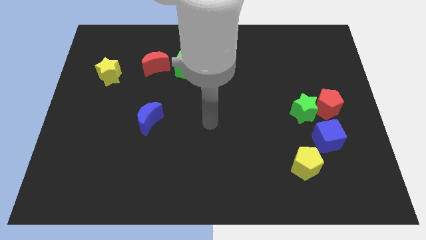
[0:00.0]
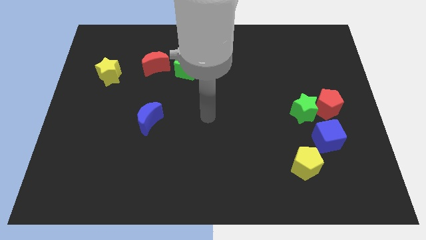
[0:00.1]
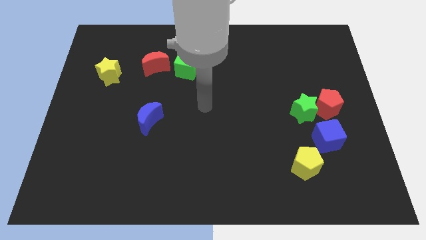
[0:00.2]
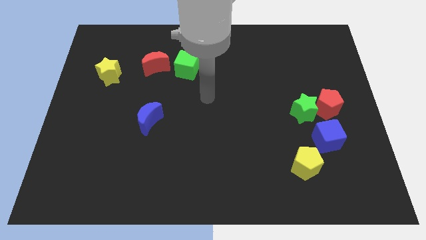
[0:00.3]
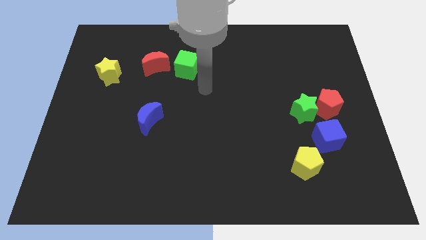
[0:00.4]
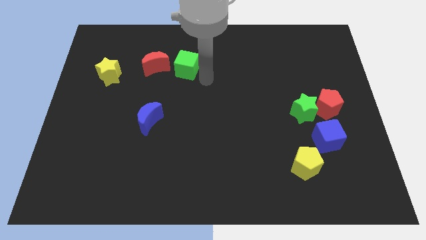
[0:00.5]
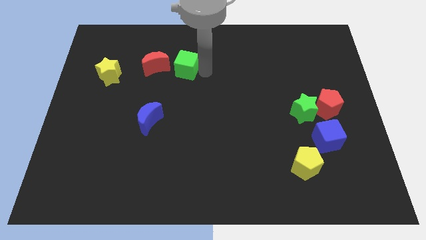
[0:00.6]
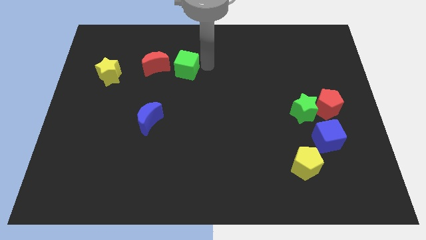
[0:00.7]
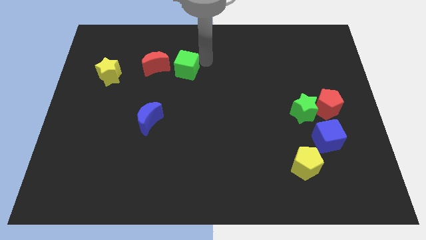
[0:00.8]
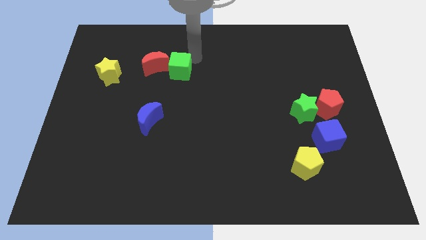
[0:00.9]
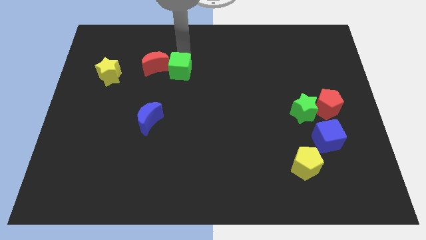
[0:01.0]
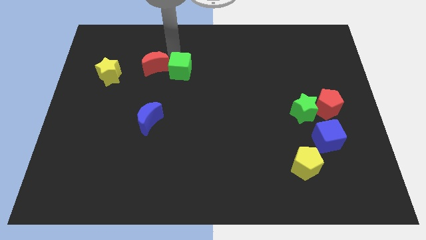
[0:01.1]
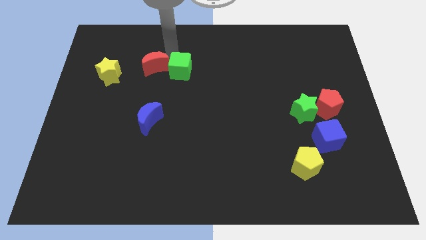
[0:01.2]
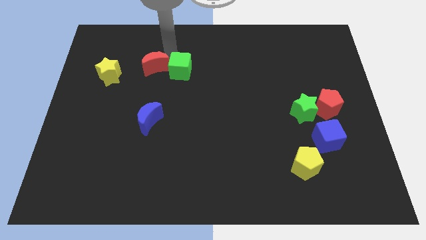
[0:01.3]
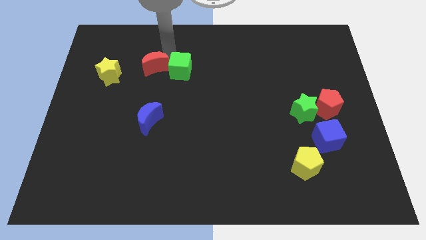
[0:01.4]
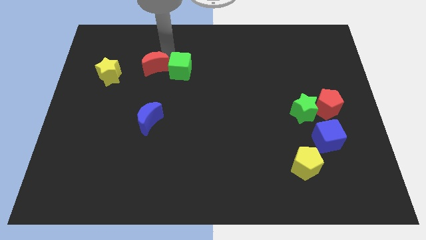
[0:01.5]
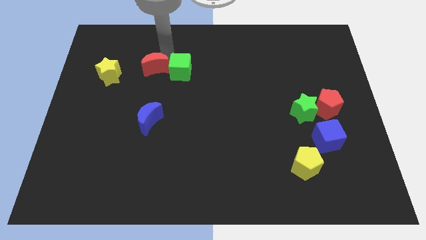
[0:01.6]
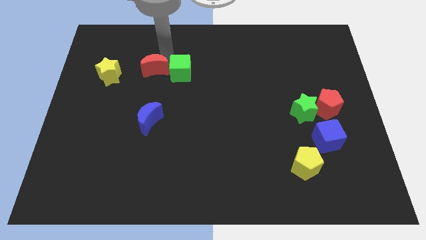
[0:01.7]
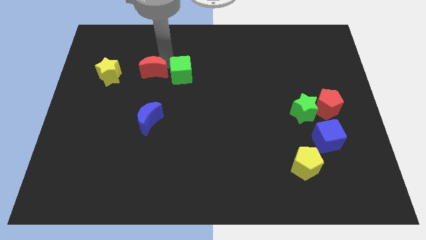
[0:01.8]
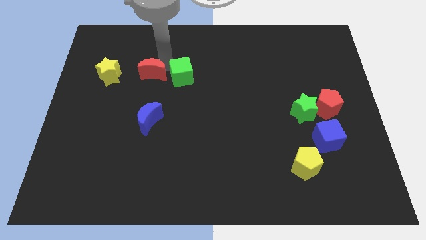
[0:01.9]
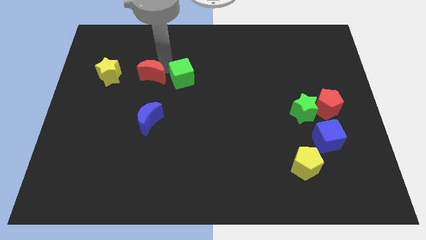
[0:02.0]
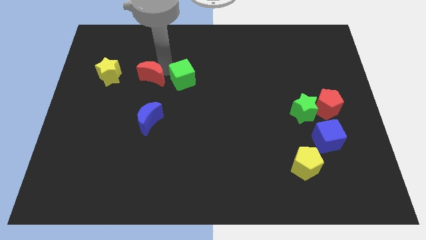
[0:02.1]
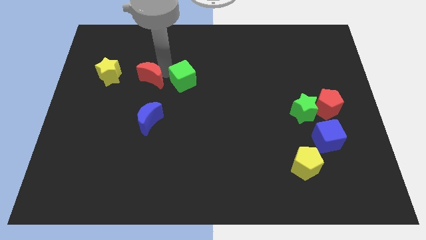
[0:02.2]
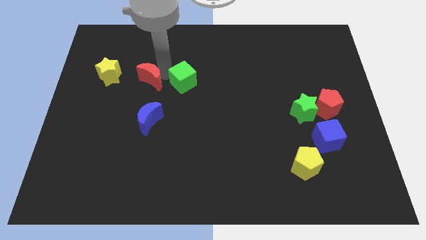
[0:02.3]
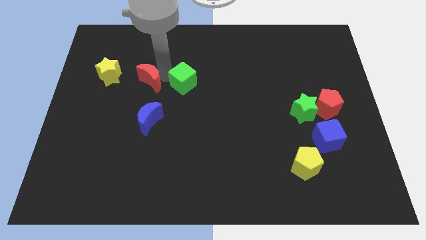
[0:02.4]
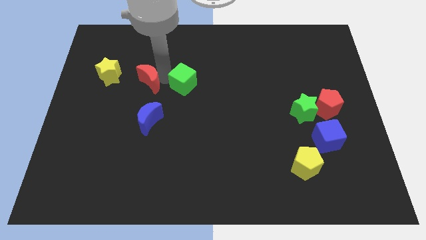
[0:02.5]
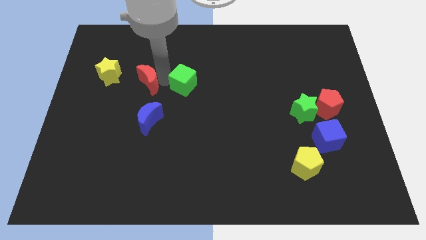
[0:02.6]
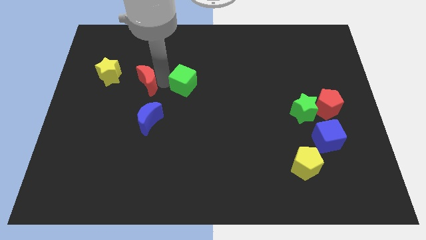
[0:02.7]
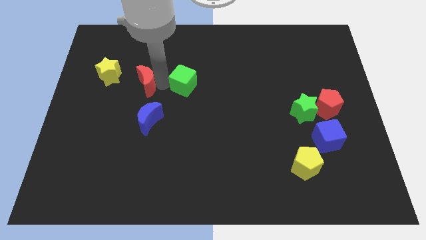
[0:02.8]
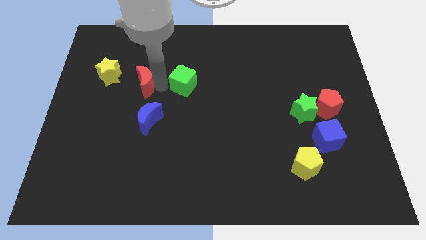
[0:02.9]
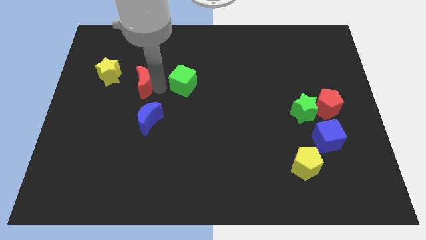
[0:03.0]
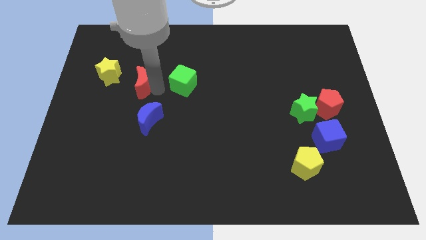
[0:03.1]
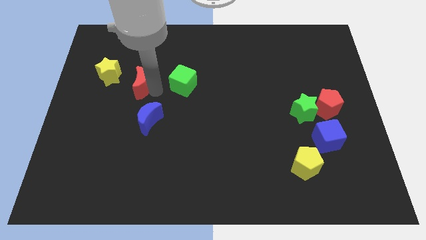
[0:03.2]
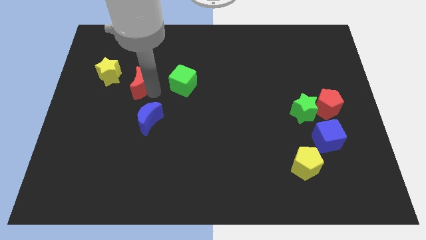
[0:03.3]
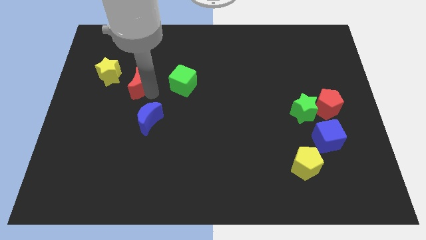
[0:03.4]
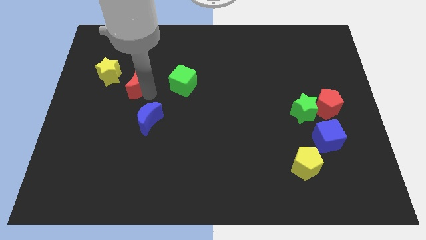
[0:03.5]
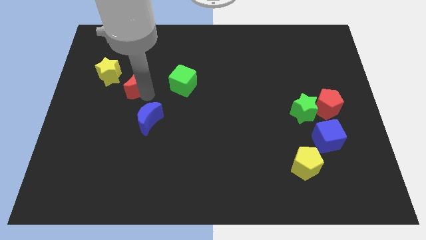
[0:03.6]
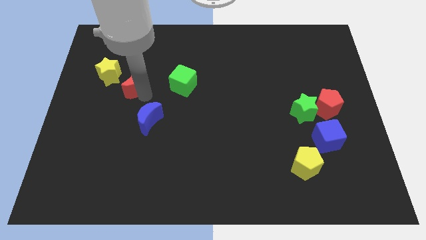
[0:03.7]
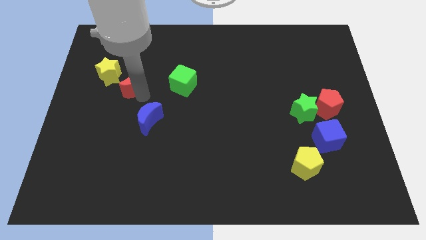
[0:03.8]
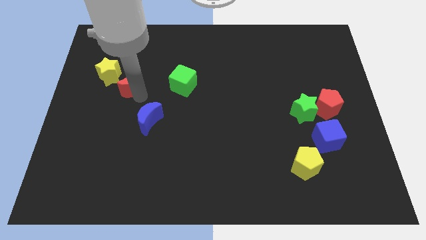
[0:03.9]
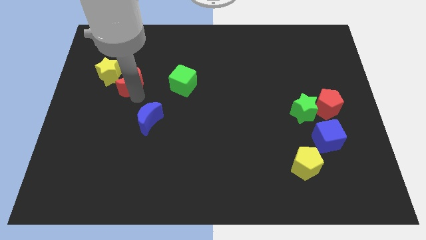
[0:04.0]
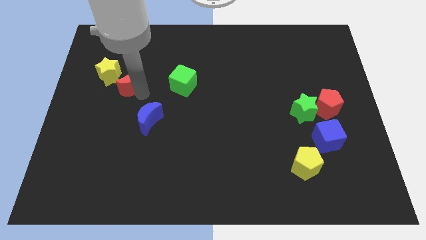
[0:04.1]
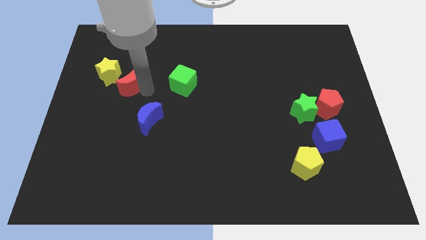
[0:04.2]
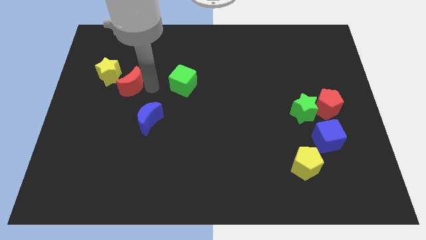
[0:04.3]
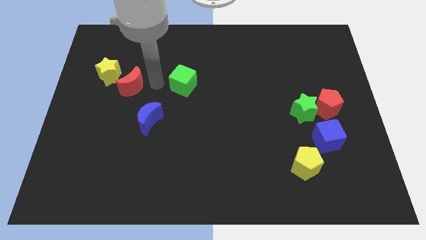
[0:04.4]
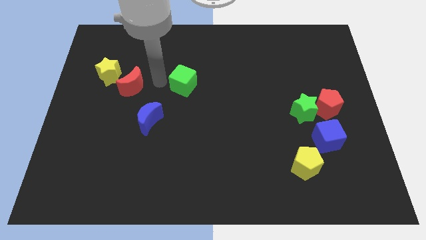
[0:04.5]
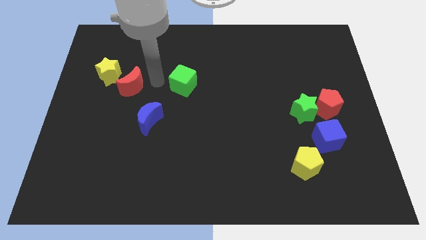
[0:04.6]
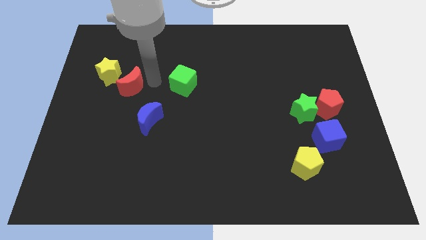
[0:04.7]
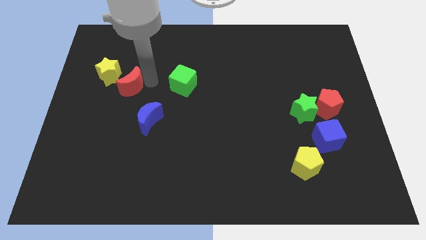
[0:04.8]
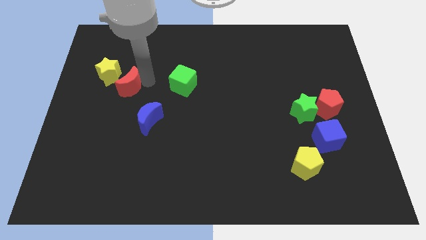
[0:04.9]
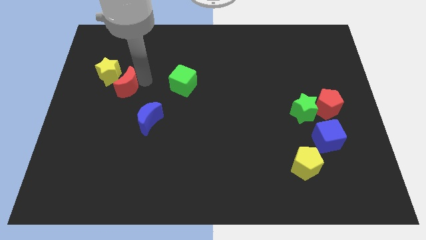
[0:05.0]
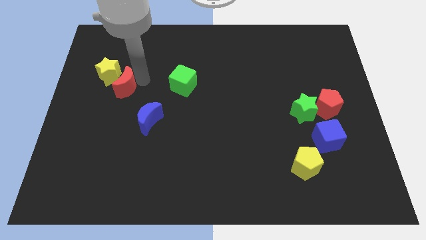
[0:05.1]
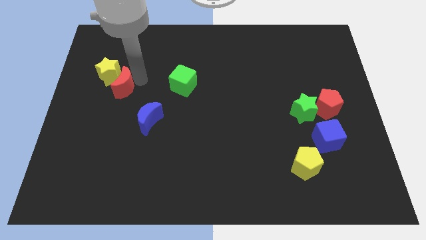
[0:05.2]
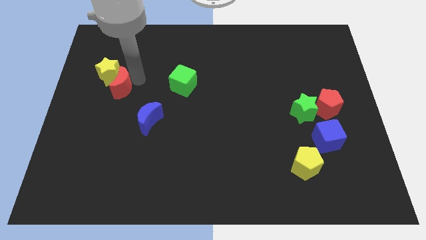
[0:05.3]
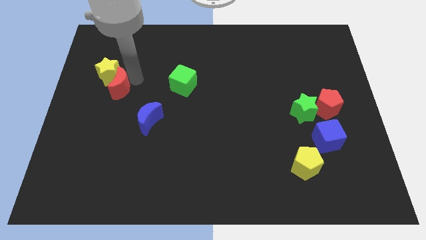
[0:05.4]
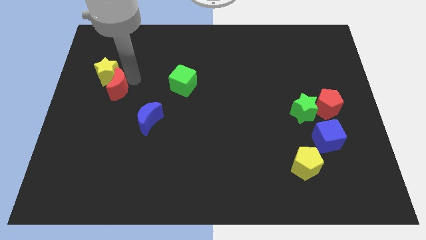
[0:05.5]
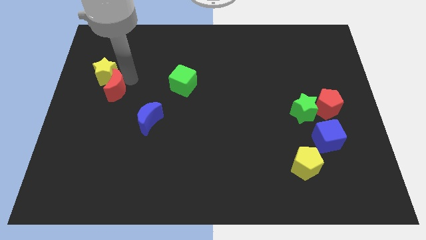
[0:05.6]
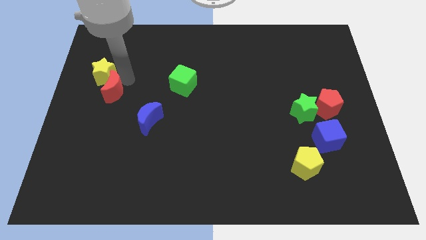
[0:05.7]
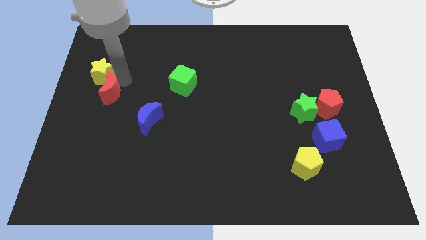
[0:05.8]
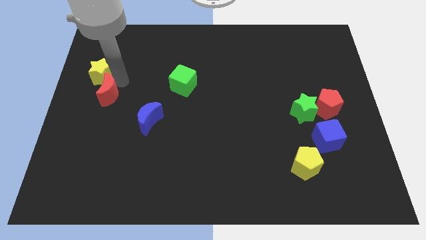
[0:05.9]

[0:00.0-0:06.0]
move the red moon to the left side

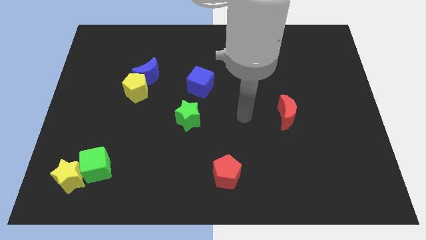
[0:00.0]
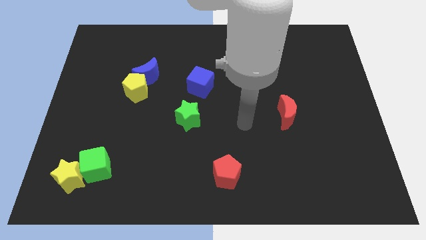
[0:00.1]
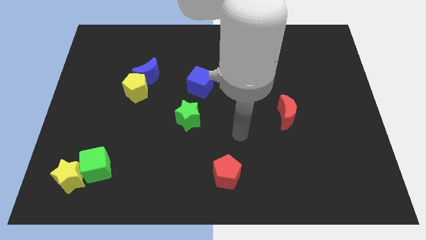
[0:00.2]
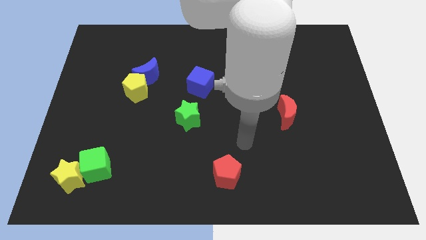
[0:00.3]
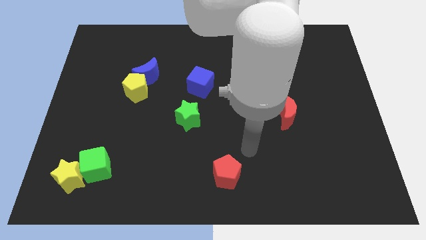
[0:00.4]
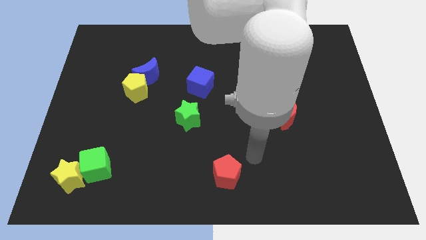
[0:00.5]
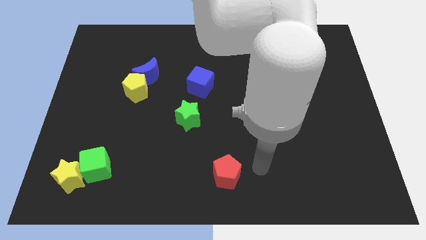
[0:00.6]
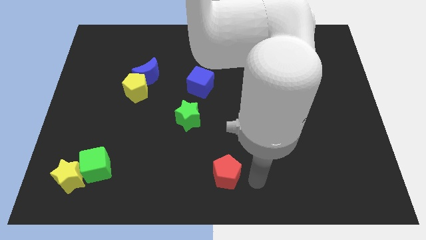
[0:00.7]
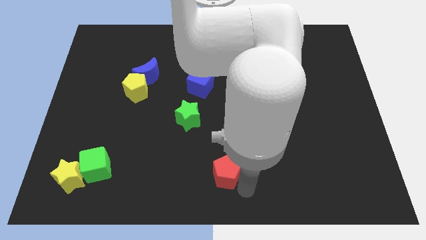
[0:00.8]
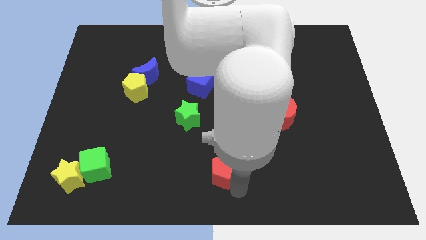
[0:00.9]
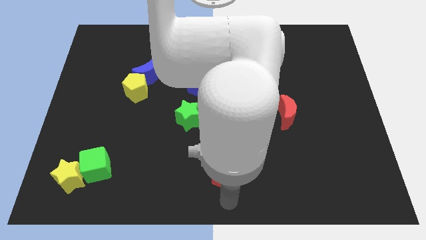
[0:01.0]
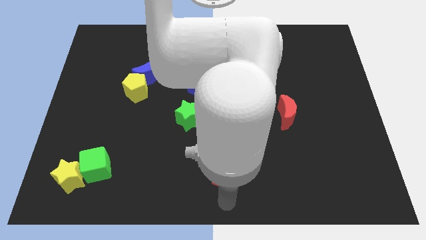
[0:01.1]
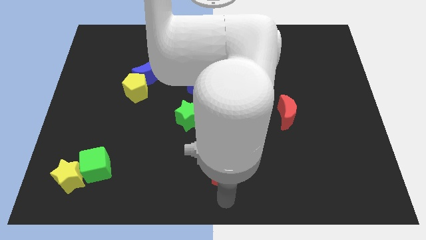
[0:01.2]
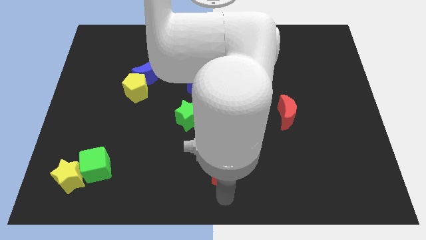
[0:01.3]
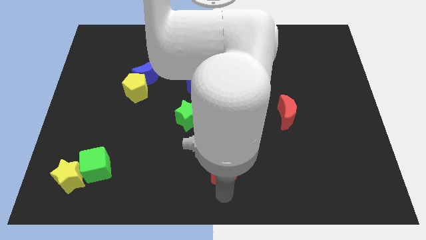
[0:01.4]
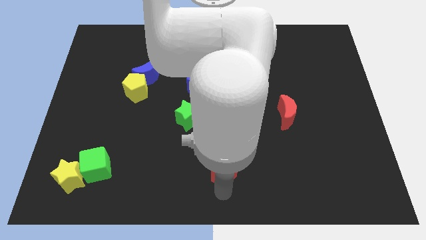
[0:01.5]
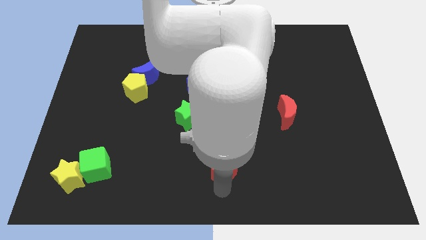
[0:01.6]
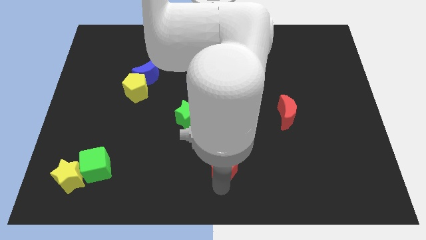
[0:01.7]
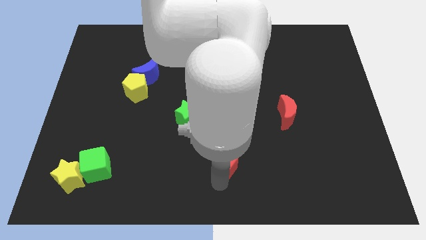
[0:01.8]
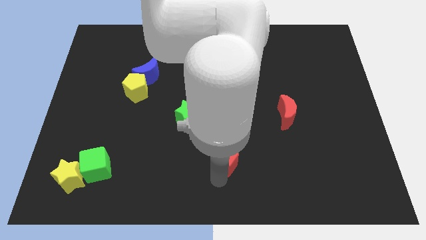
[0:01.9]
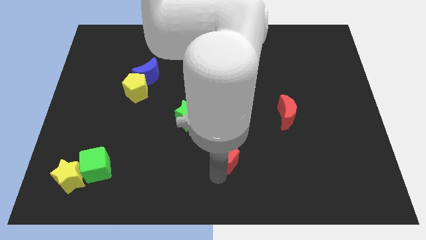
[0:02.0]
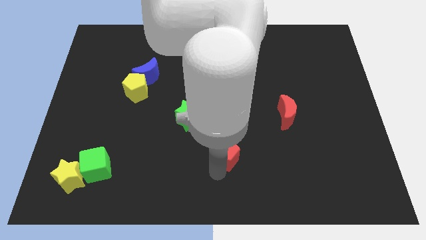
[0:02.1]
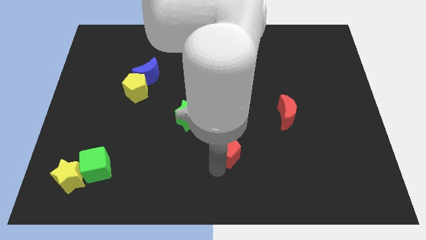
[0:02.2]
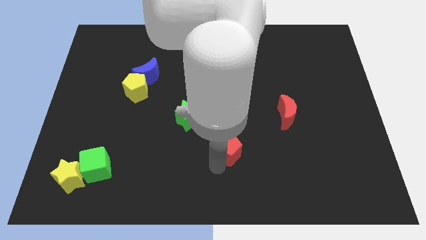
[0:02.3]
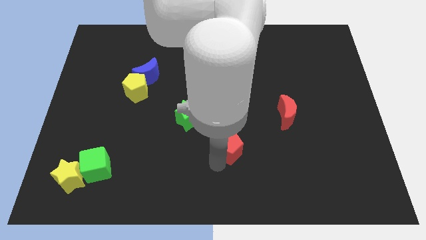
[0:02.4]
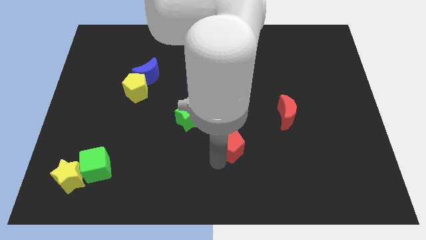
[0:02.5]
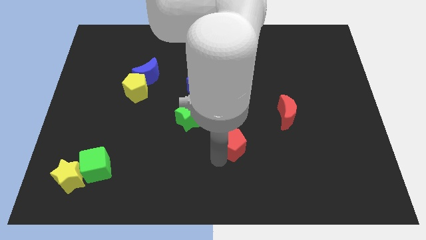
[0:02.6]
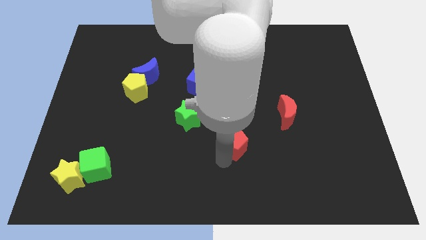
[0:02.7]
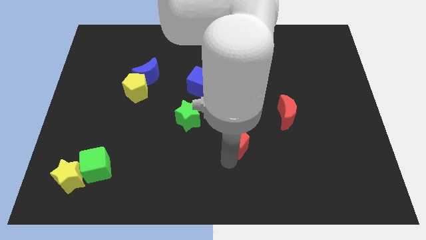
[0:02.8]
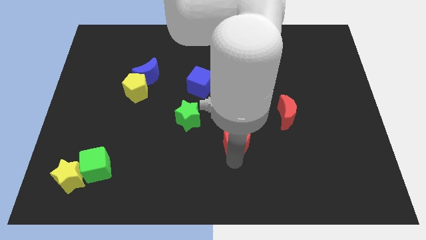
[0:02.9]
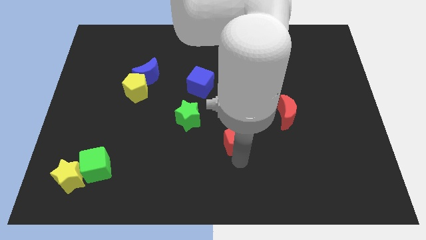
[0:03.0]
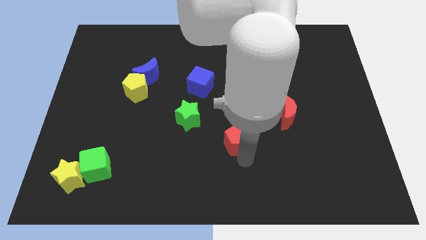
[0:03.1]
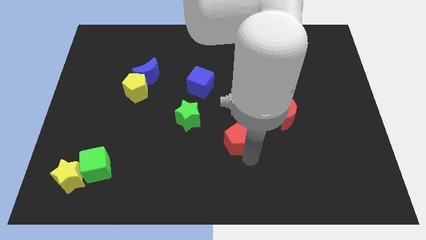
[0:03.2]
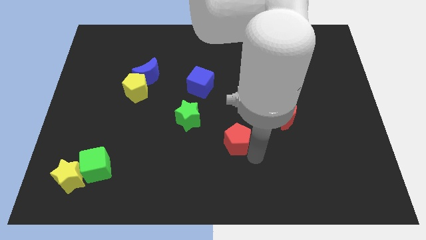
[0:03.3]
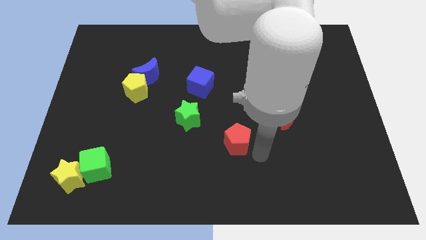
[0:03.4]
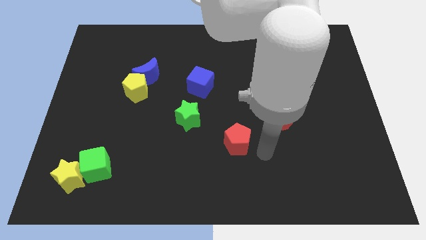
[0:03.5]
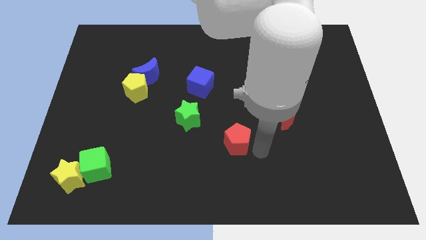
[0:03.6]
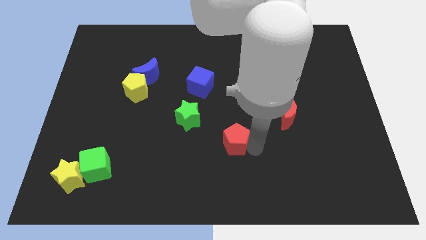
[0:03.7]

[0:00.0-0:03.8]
slide the red pentagon to the center of the board
